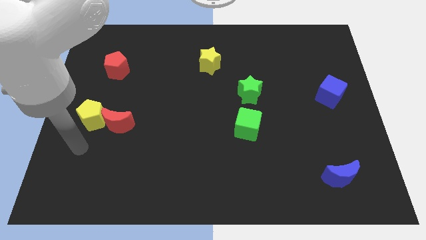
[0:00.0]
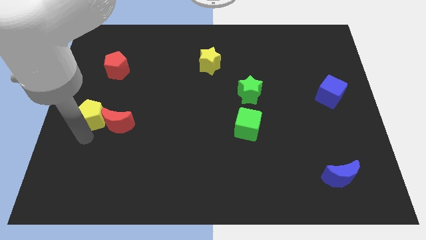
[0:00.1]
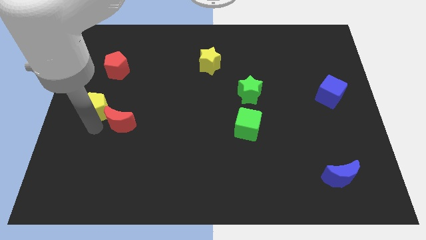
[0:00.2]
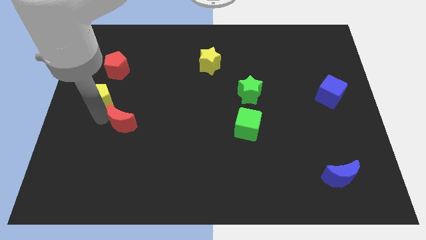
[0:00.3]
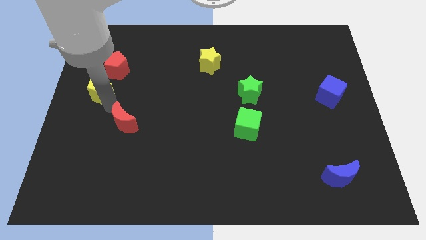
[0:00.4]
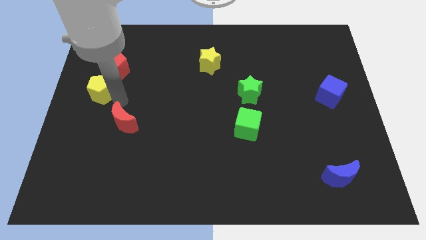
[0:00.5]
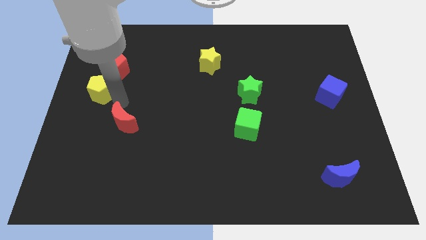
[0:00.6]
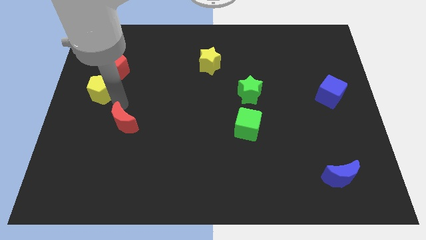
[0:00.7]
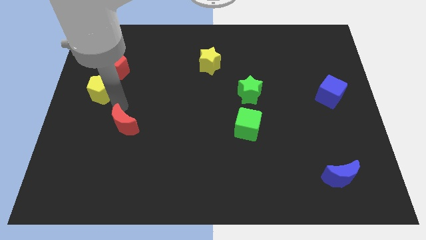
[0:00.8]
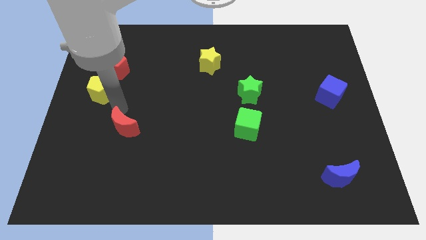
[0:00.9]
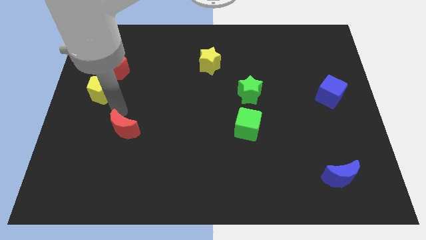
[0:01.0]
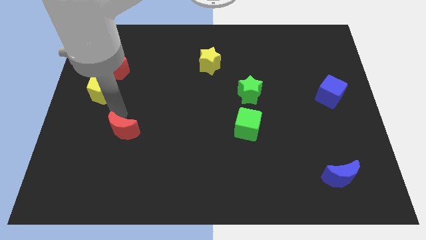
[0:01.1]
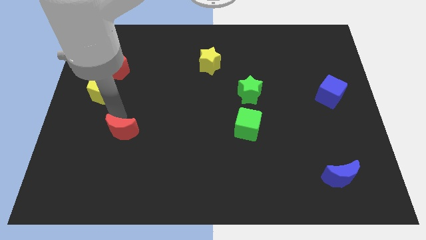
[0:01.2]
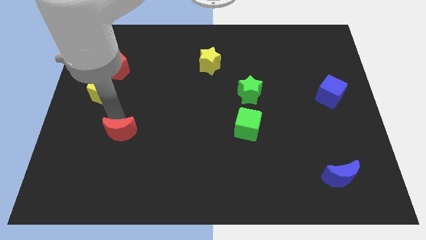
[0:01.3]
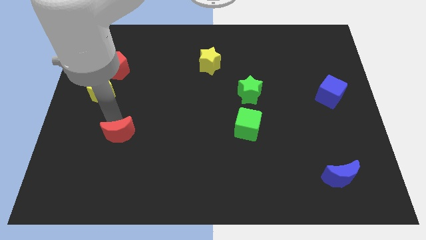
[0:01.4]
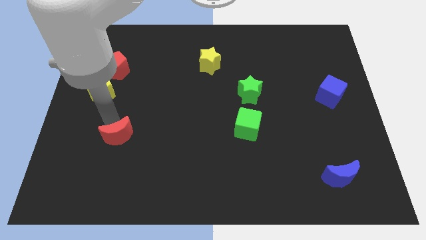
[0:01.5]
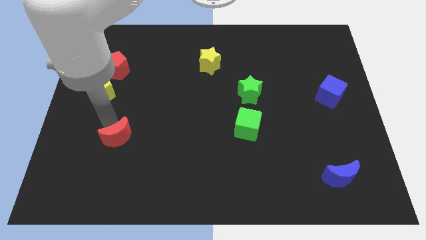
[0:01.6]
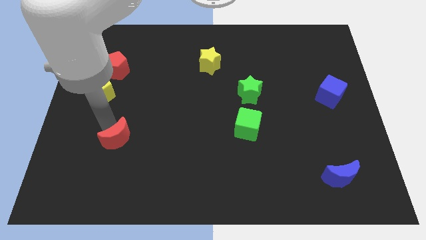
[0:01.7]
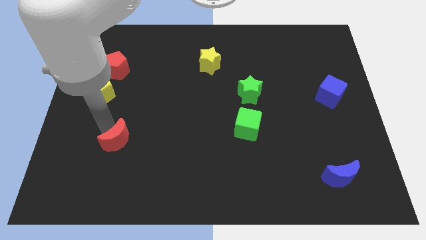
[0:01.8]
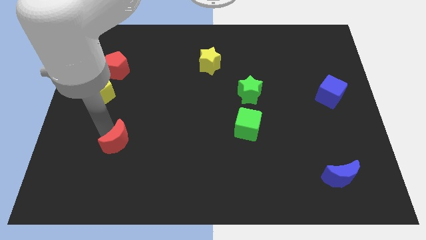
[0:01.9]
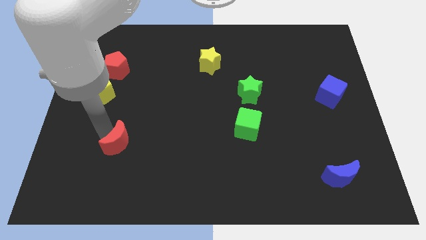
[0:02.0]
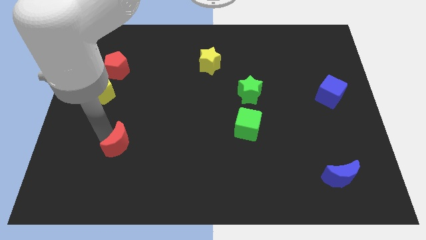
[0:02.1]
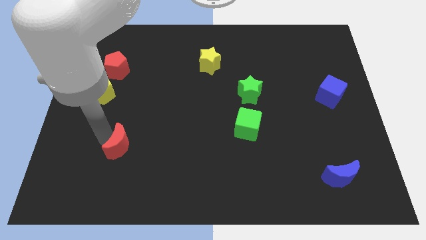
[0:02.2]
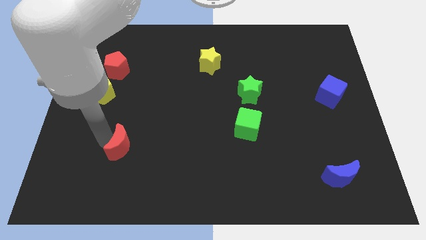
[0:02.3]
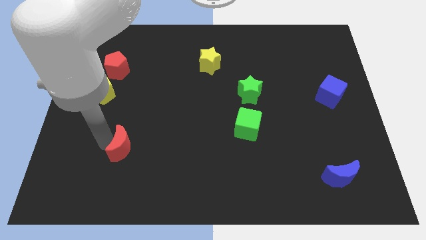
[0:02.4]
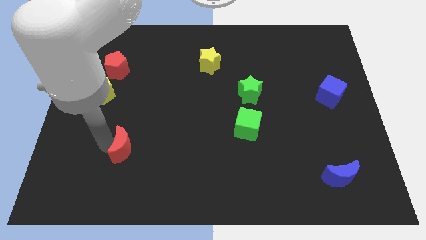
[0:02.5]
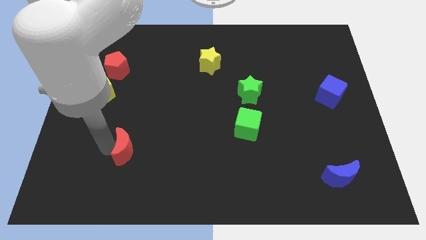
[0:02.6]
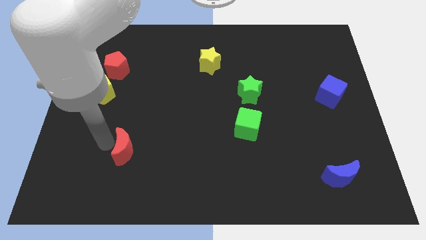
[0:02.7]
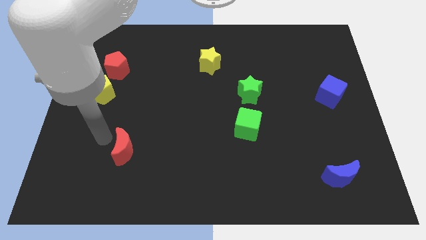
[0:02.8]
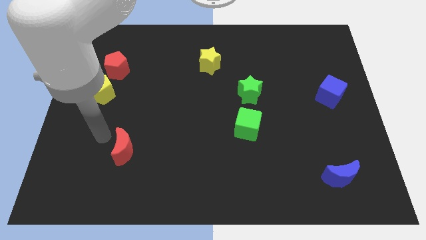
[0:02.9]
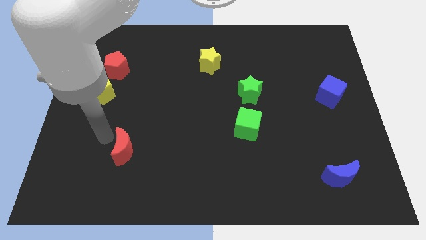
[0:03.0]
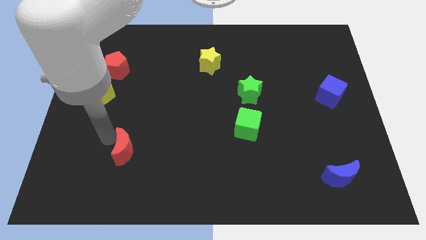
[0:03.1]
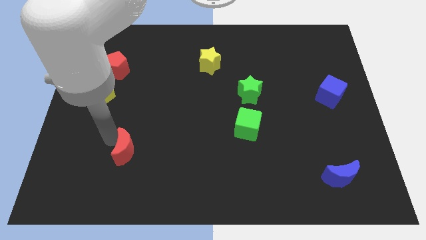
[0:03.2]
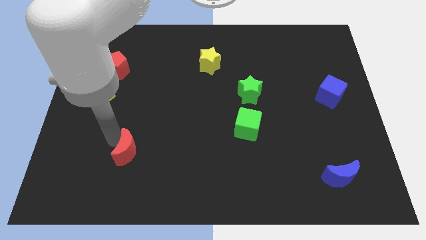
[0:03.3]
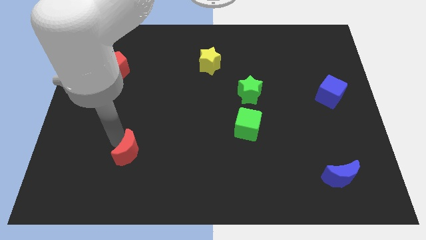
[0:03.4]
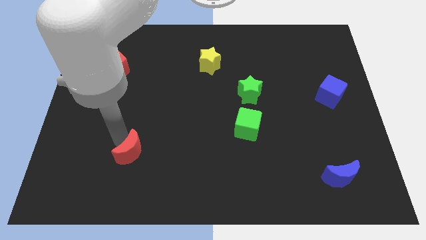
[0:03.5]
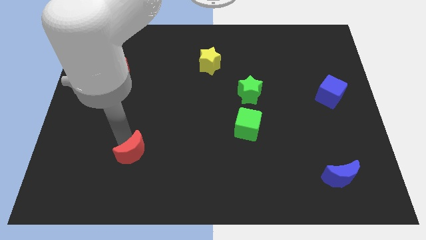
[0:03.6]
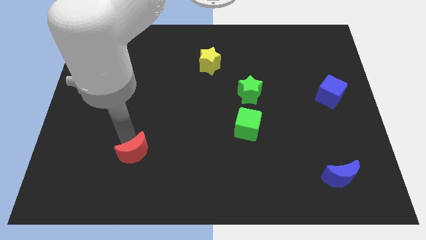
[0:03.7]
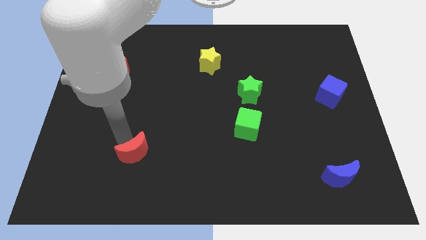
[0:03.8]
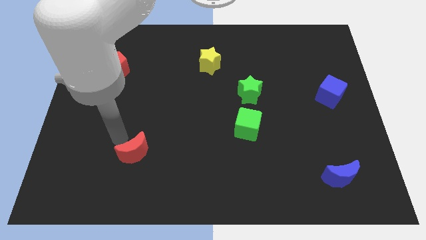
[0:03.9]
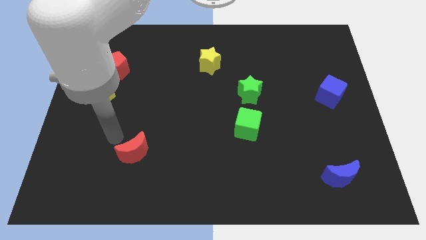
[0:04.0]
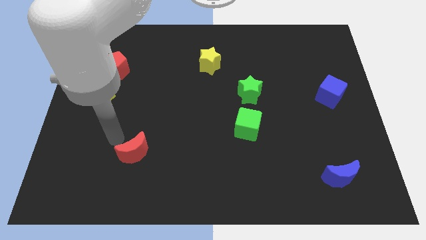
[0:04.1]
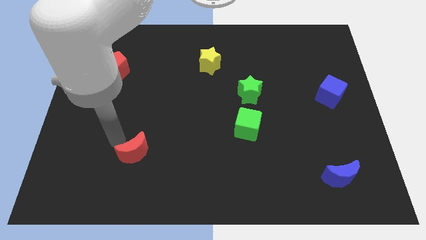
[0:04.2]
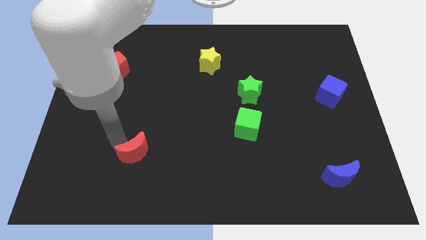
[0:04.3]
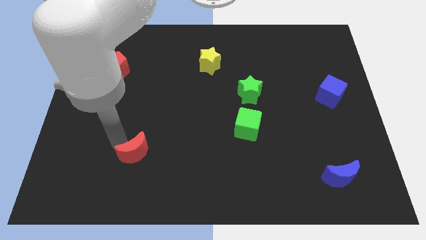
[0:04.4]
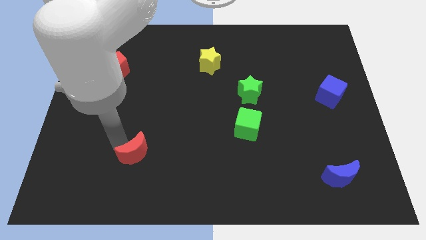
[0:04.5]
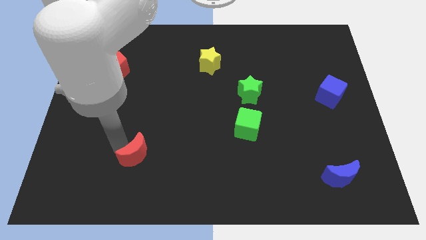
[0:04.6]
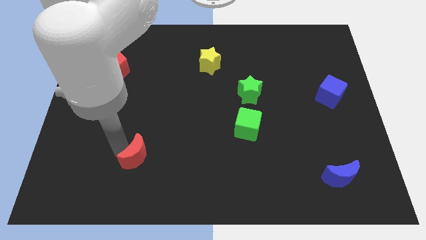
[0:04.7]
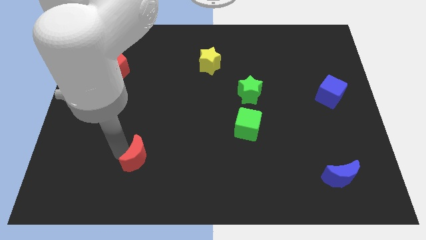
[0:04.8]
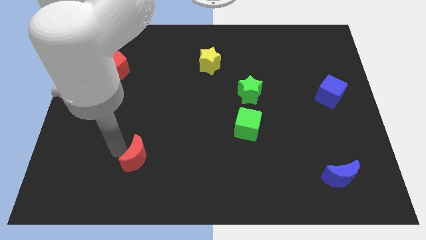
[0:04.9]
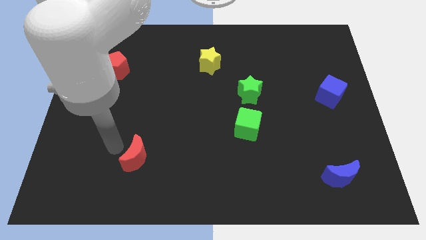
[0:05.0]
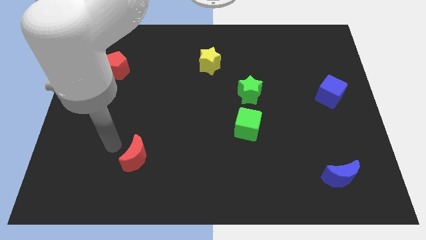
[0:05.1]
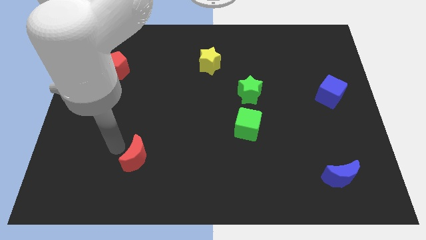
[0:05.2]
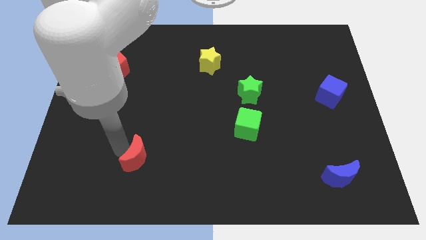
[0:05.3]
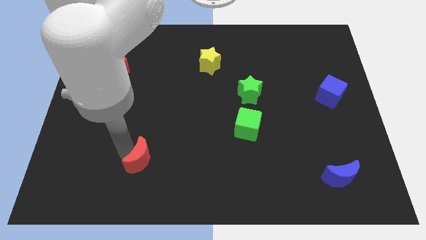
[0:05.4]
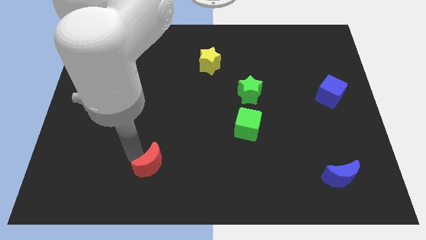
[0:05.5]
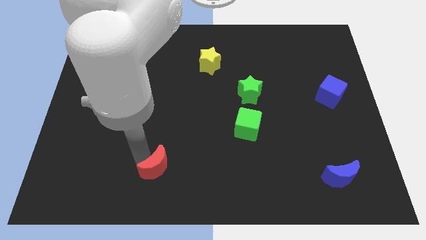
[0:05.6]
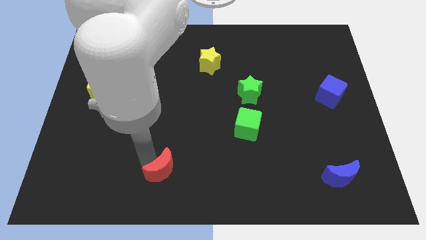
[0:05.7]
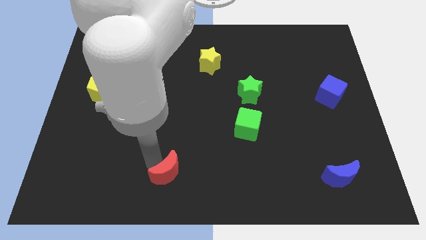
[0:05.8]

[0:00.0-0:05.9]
slide the red moon to the bottom
